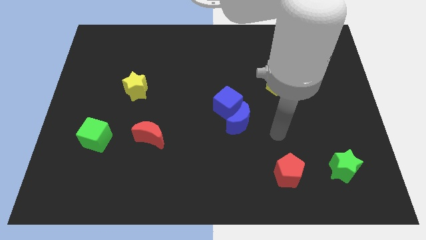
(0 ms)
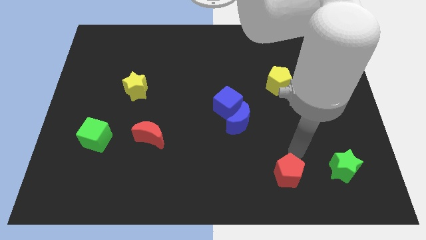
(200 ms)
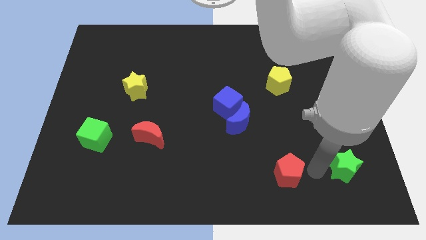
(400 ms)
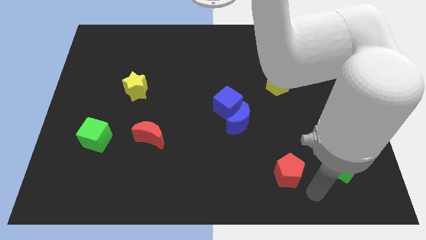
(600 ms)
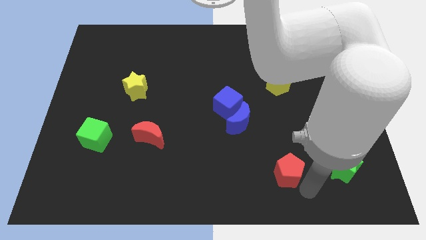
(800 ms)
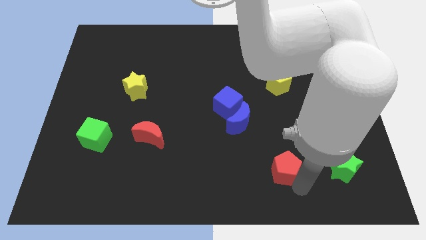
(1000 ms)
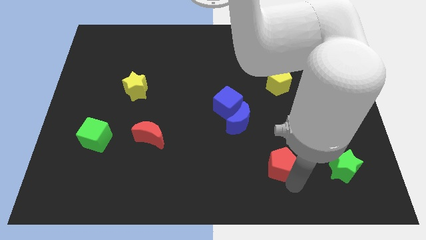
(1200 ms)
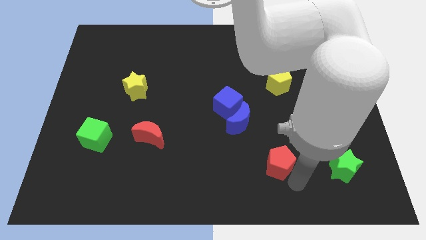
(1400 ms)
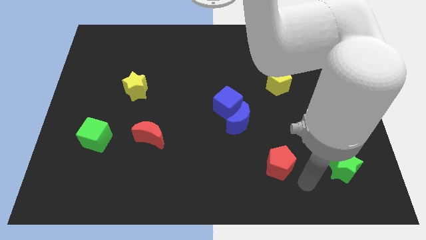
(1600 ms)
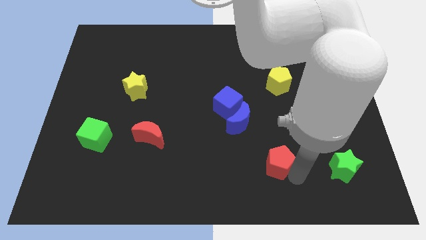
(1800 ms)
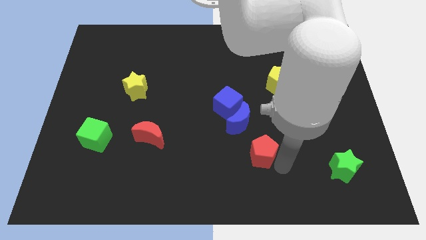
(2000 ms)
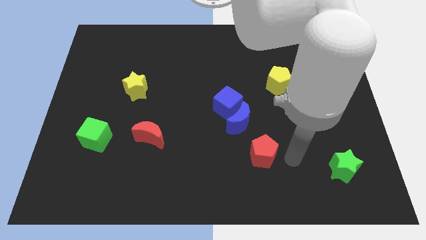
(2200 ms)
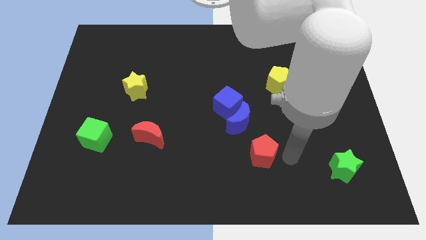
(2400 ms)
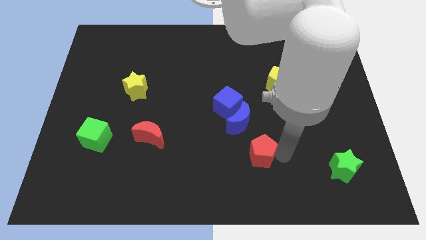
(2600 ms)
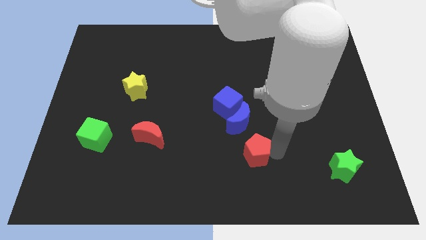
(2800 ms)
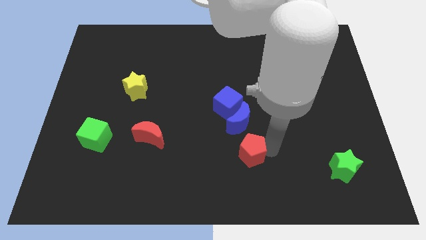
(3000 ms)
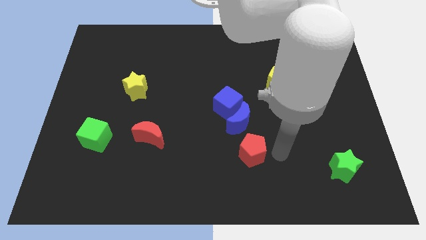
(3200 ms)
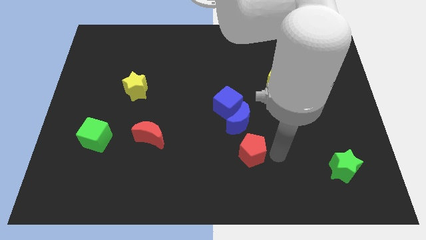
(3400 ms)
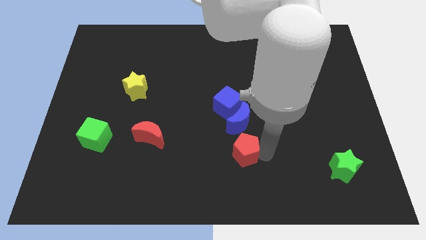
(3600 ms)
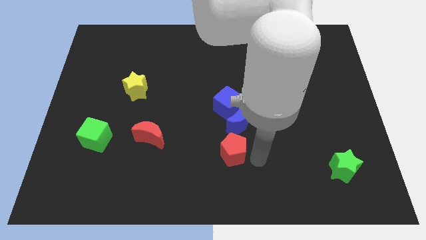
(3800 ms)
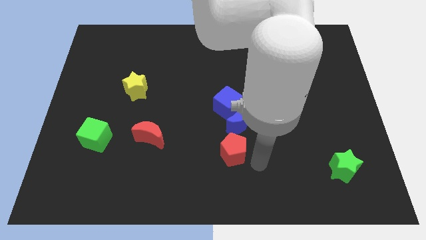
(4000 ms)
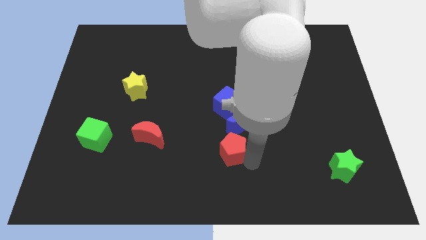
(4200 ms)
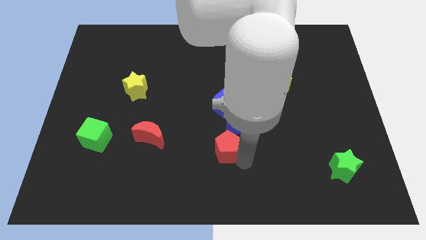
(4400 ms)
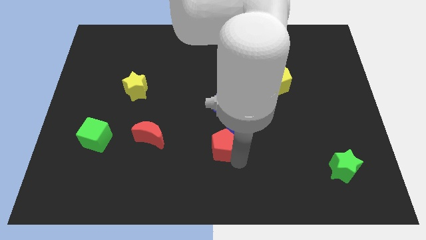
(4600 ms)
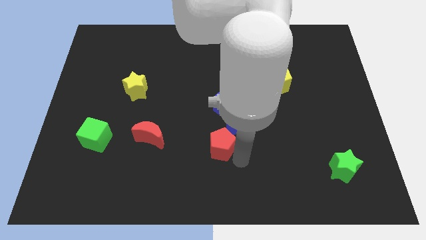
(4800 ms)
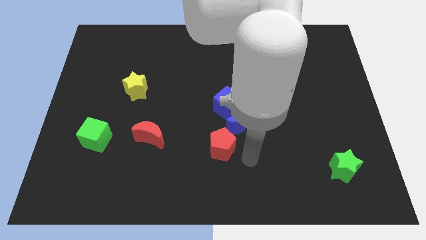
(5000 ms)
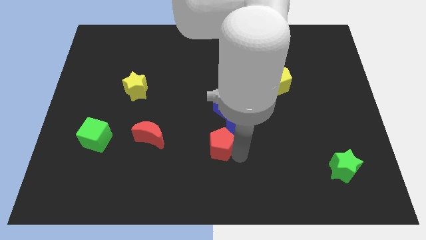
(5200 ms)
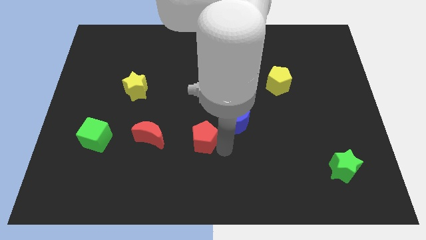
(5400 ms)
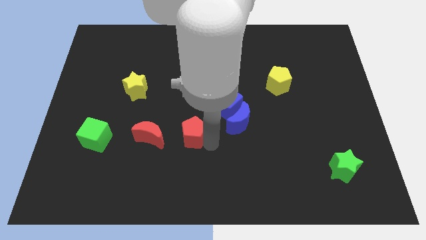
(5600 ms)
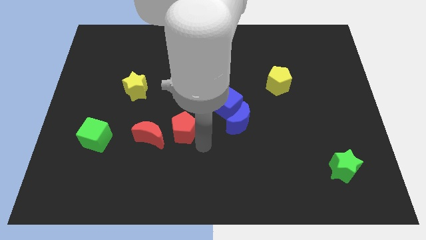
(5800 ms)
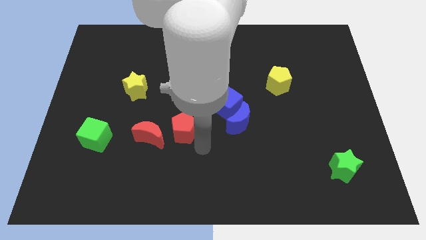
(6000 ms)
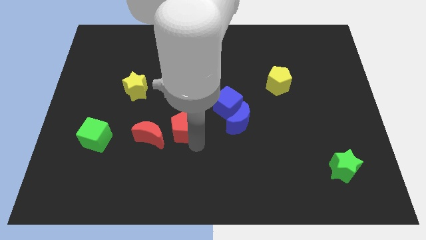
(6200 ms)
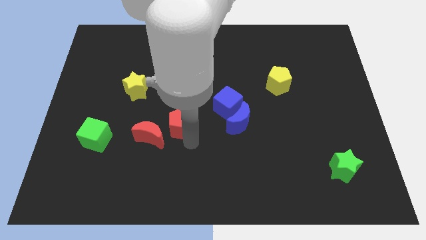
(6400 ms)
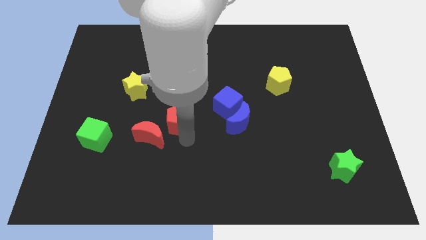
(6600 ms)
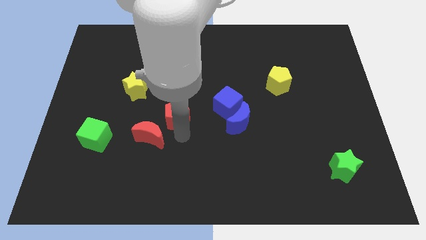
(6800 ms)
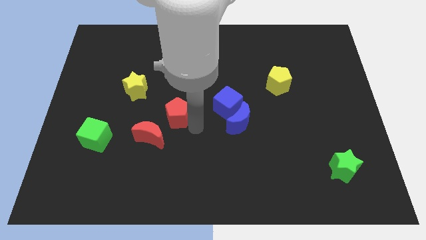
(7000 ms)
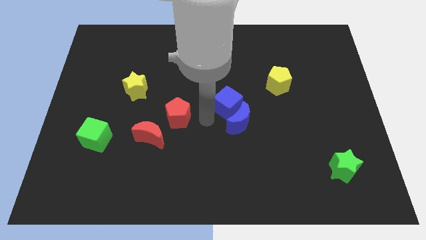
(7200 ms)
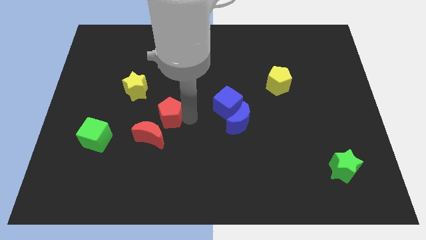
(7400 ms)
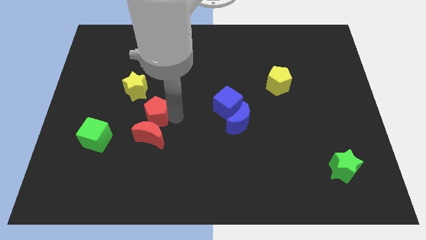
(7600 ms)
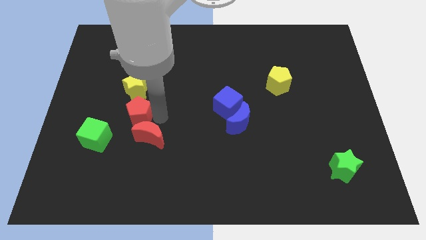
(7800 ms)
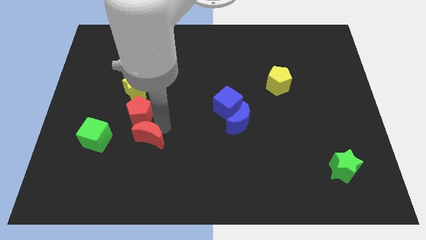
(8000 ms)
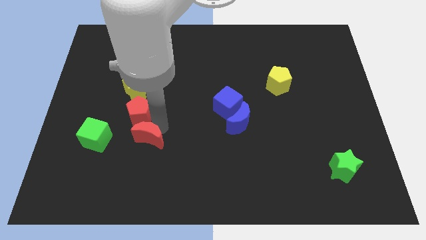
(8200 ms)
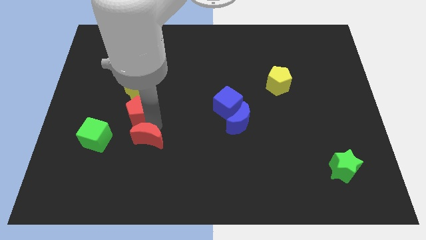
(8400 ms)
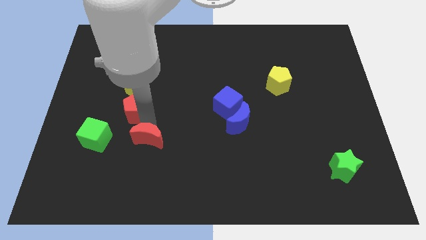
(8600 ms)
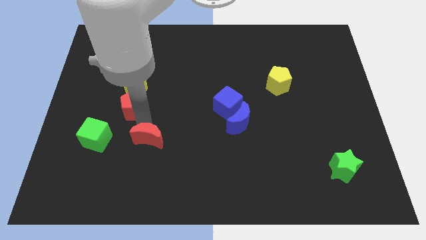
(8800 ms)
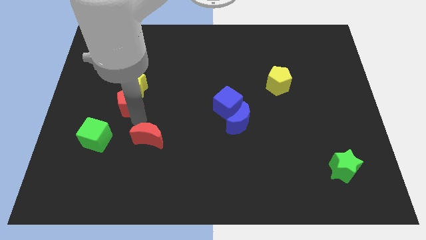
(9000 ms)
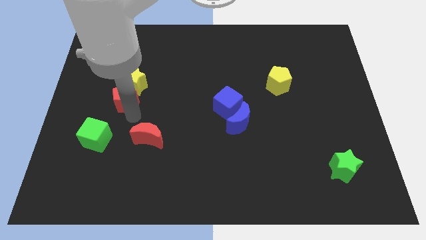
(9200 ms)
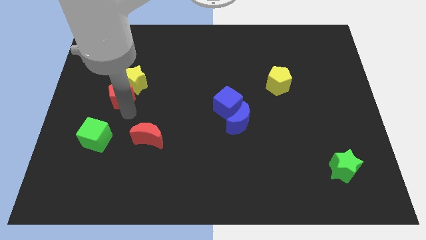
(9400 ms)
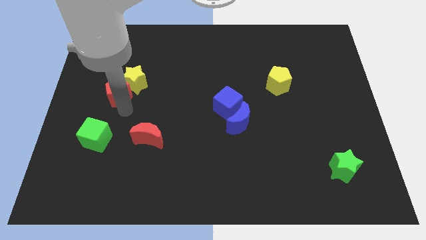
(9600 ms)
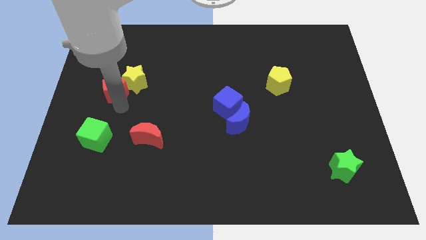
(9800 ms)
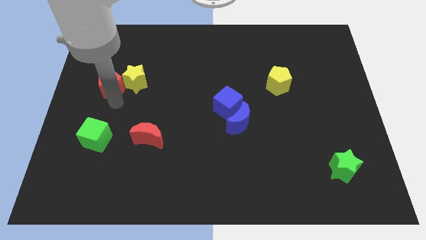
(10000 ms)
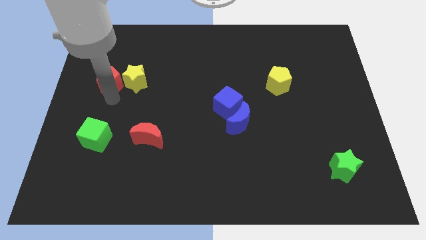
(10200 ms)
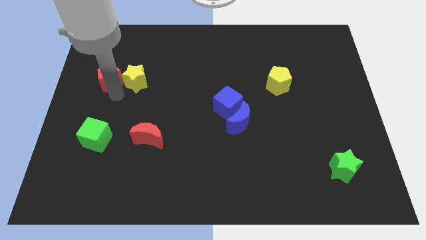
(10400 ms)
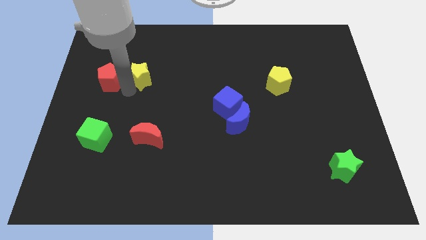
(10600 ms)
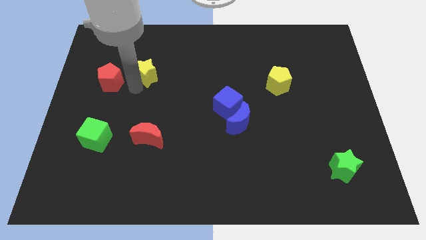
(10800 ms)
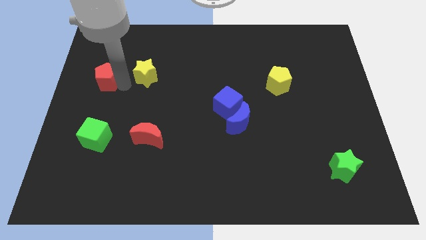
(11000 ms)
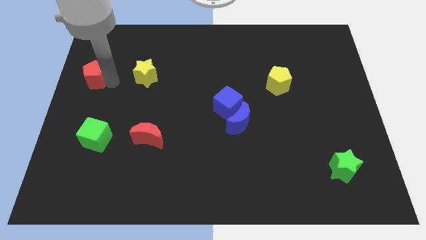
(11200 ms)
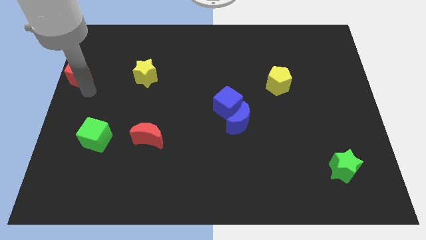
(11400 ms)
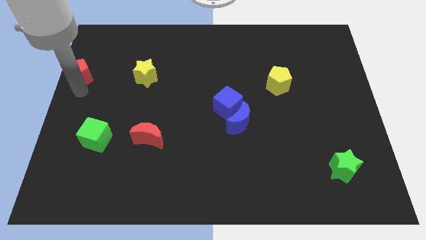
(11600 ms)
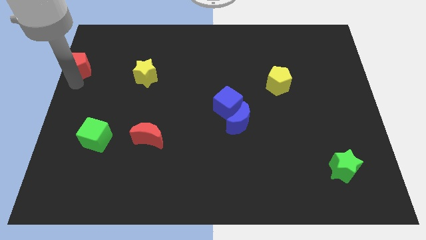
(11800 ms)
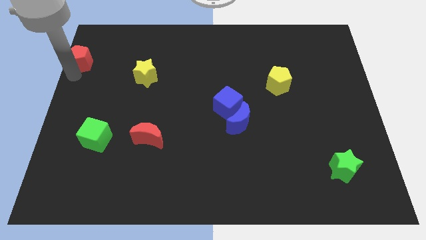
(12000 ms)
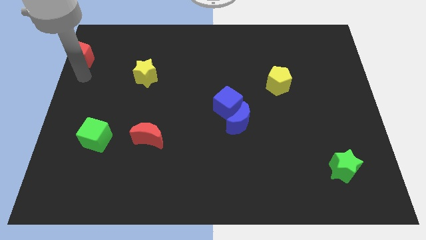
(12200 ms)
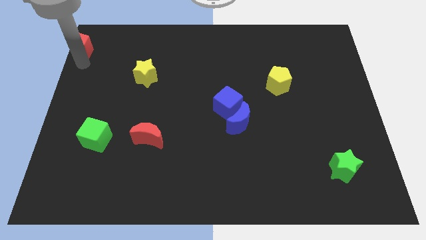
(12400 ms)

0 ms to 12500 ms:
move the red pentagon to the top left corner

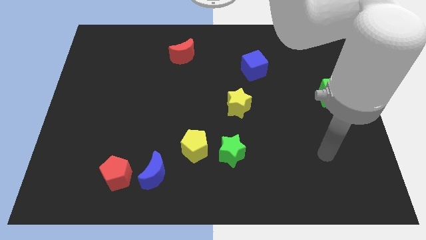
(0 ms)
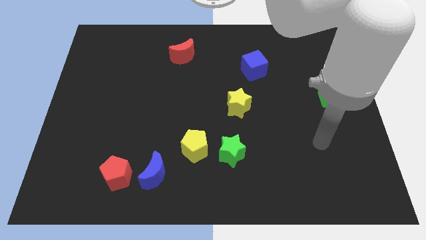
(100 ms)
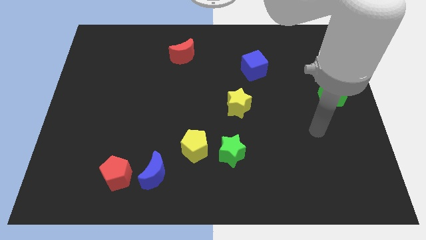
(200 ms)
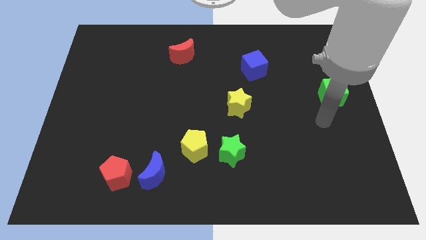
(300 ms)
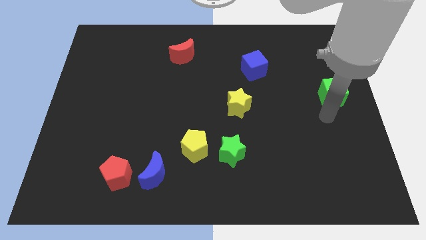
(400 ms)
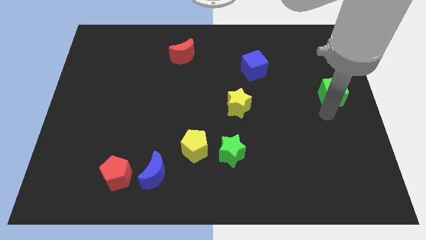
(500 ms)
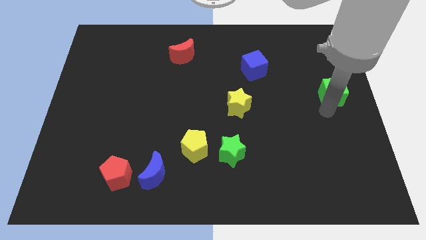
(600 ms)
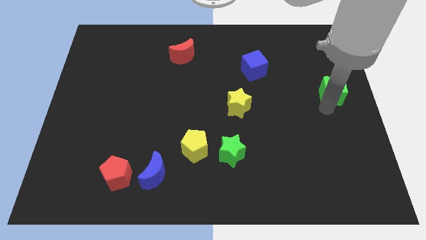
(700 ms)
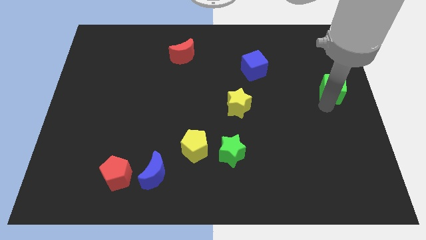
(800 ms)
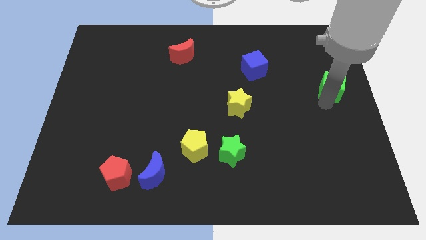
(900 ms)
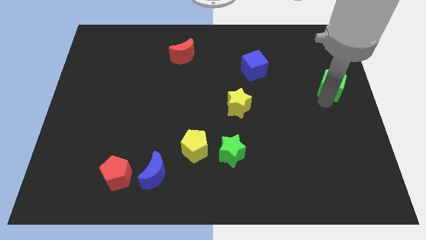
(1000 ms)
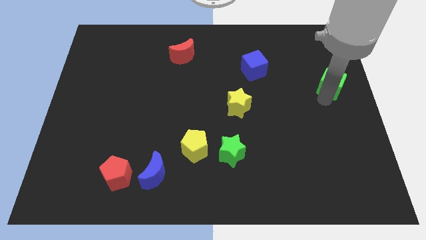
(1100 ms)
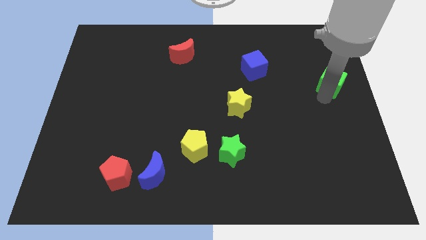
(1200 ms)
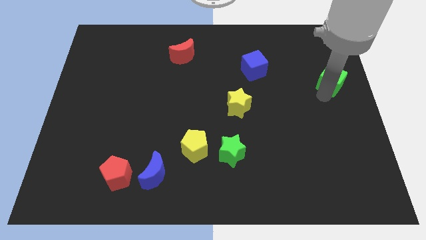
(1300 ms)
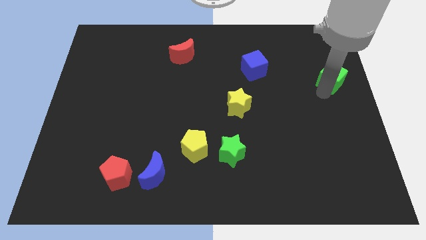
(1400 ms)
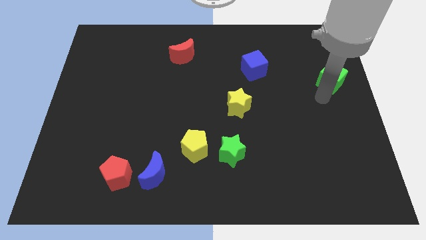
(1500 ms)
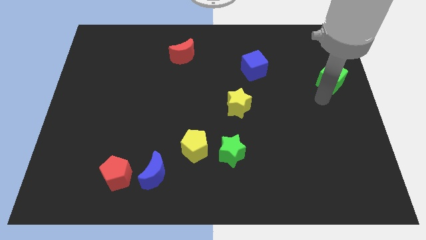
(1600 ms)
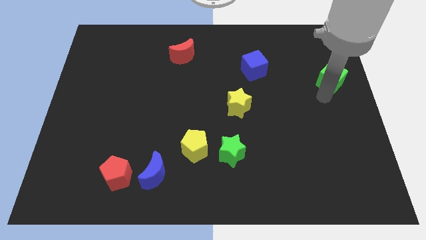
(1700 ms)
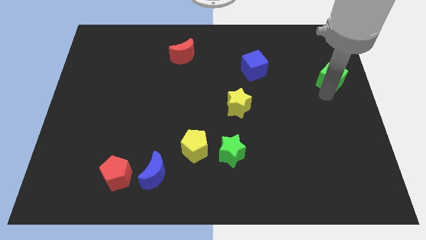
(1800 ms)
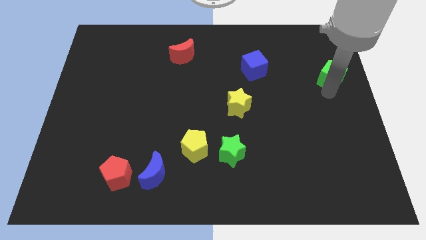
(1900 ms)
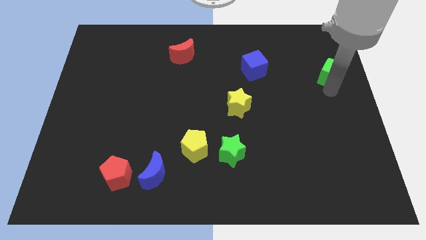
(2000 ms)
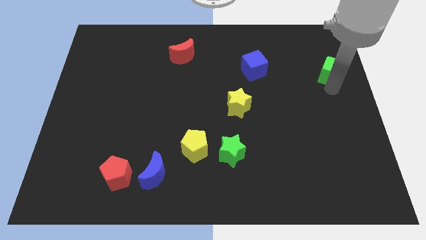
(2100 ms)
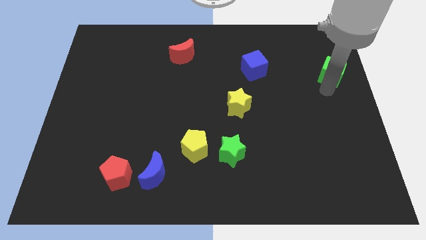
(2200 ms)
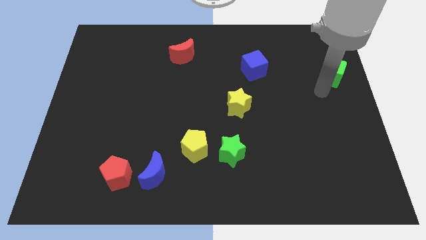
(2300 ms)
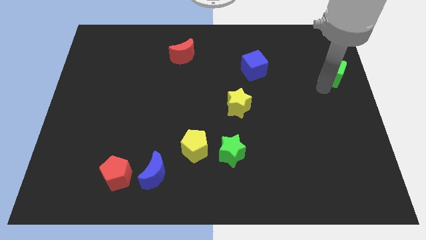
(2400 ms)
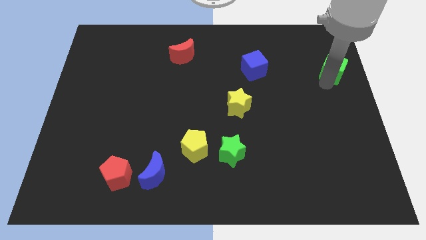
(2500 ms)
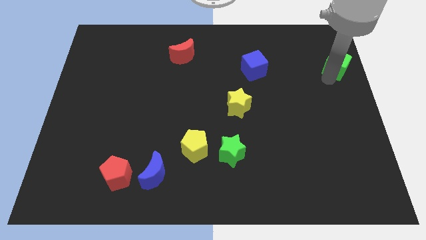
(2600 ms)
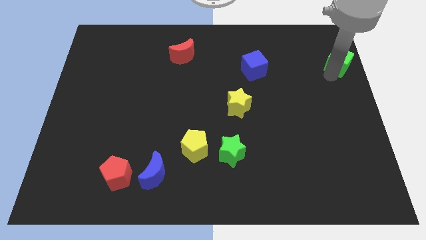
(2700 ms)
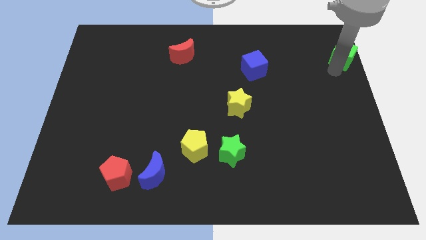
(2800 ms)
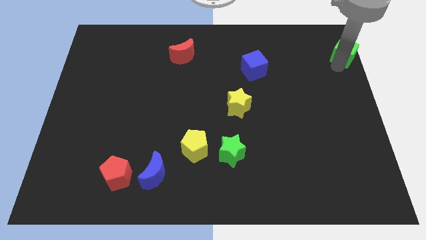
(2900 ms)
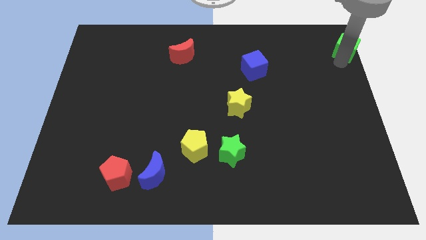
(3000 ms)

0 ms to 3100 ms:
push the green cube to the top right
